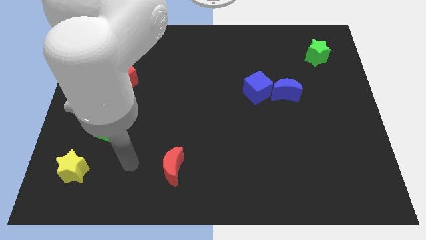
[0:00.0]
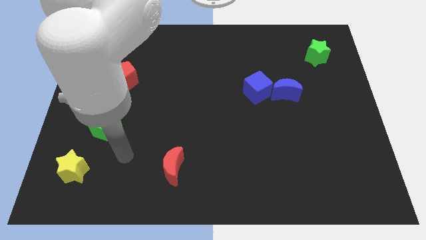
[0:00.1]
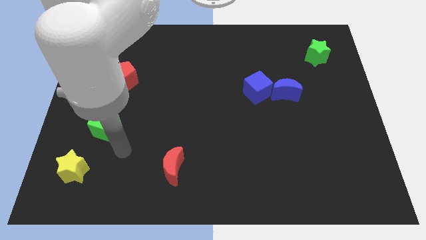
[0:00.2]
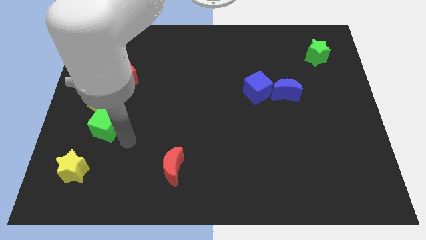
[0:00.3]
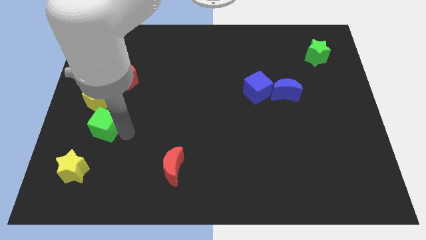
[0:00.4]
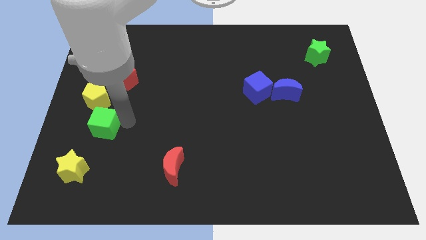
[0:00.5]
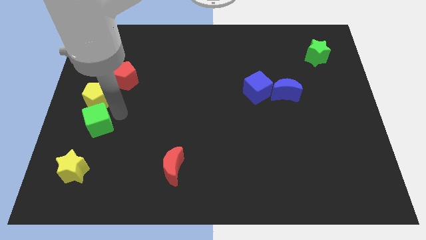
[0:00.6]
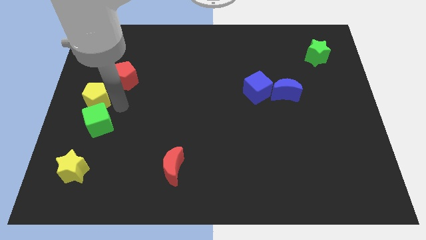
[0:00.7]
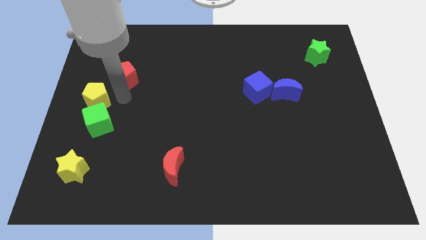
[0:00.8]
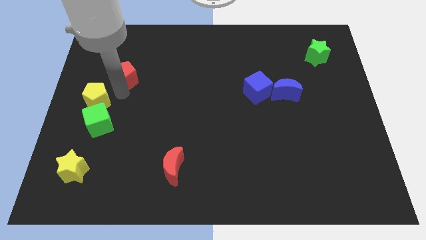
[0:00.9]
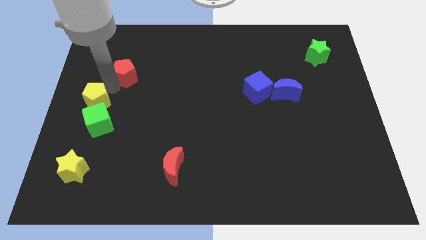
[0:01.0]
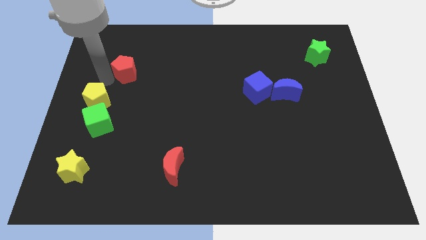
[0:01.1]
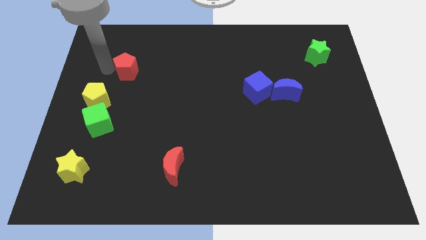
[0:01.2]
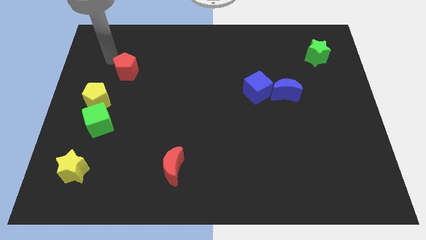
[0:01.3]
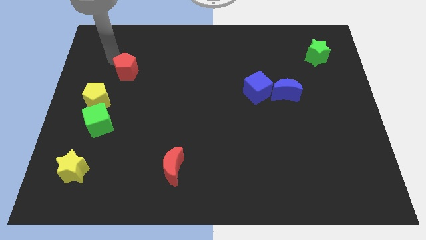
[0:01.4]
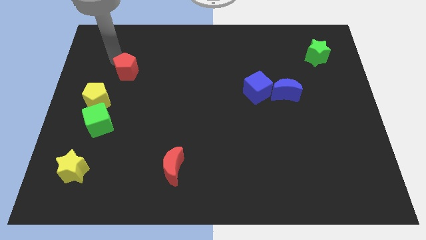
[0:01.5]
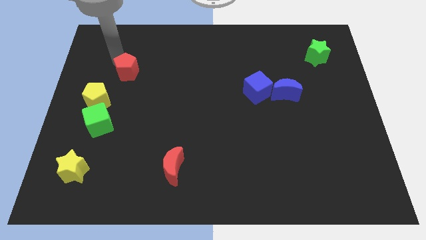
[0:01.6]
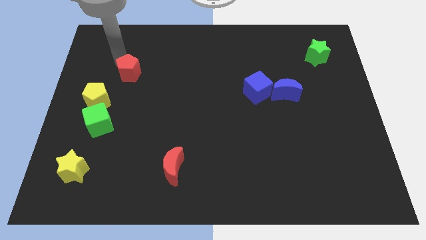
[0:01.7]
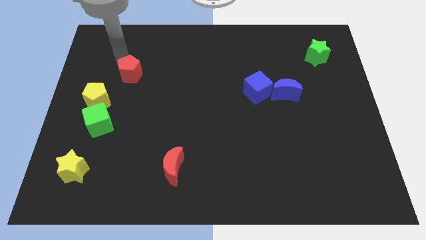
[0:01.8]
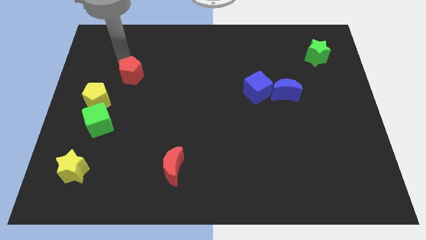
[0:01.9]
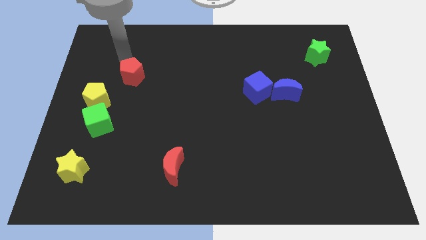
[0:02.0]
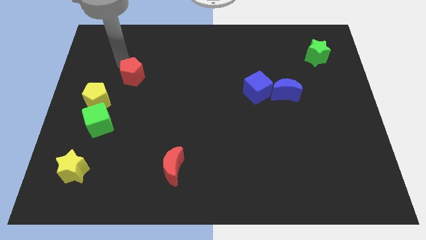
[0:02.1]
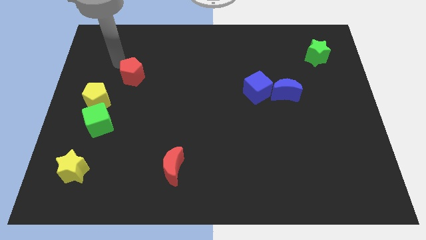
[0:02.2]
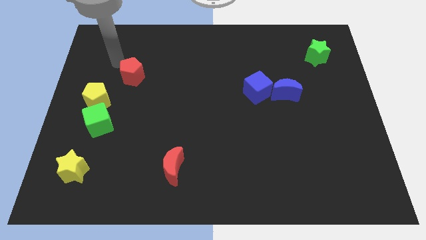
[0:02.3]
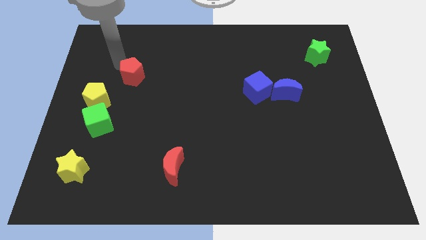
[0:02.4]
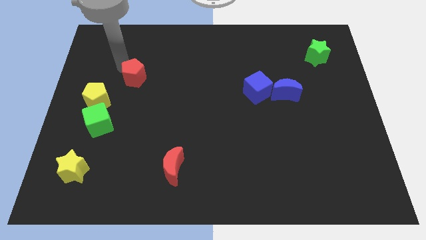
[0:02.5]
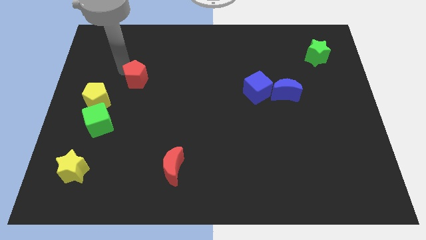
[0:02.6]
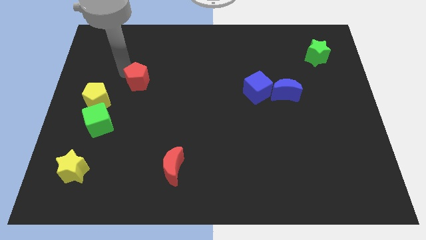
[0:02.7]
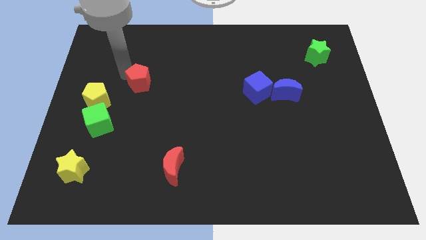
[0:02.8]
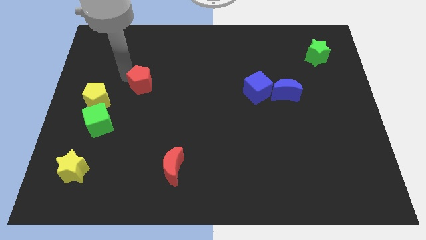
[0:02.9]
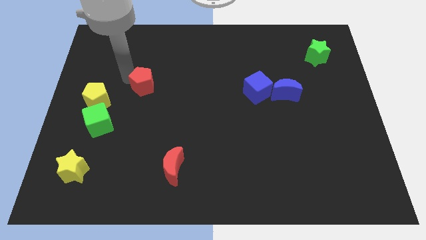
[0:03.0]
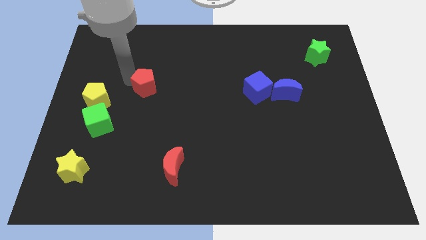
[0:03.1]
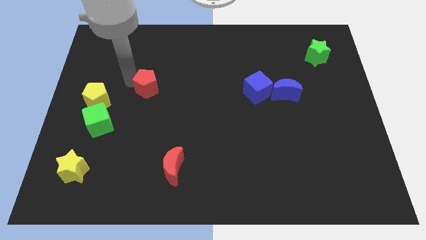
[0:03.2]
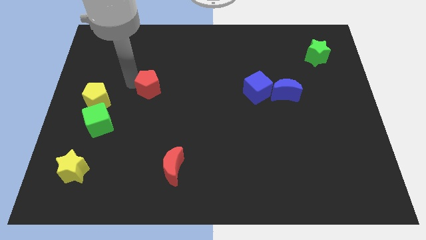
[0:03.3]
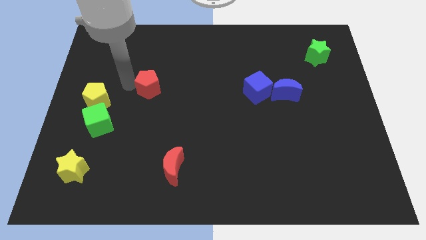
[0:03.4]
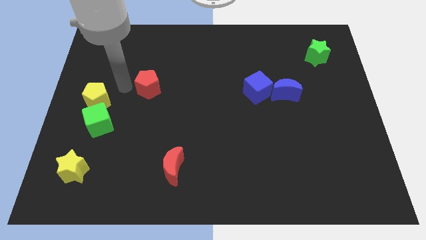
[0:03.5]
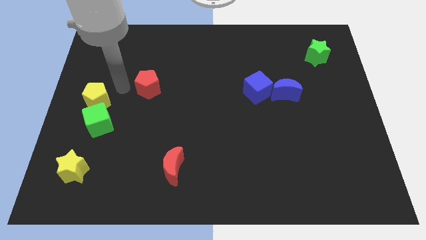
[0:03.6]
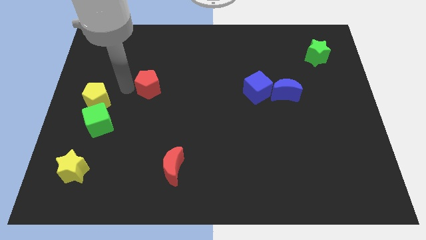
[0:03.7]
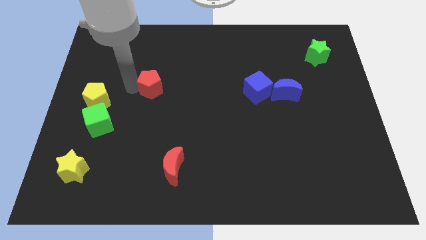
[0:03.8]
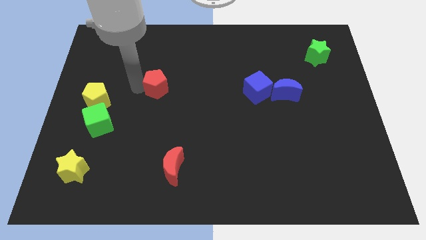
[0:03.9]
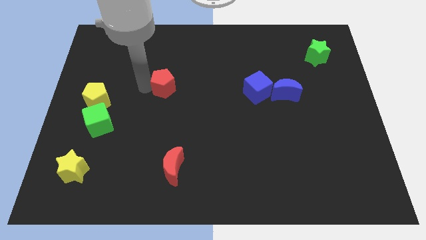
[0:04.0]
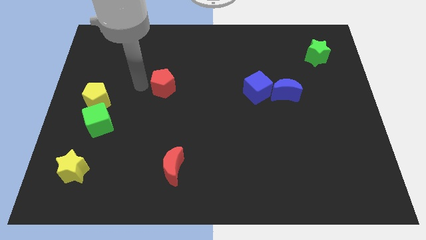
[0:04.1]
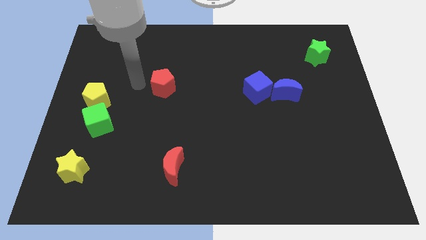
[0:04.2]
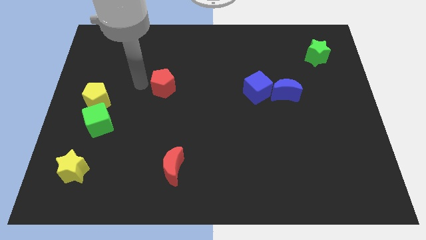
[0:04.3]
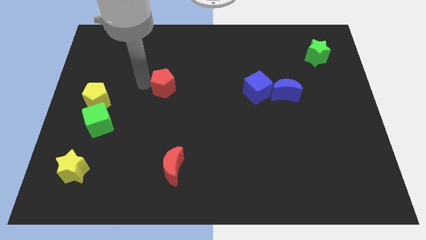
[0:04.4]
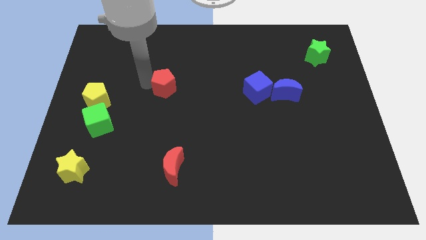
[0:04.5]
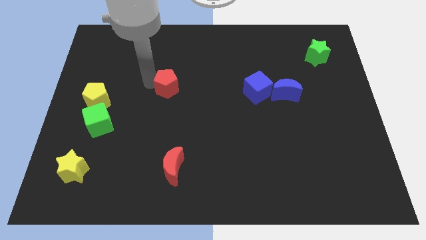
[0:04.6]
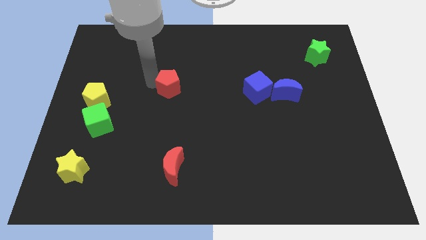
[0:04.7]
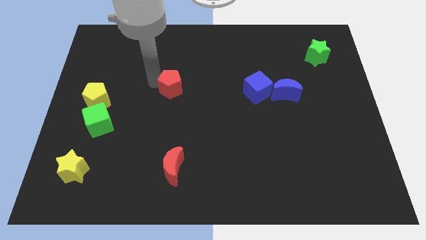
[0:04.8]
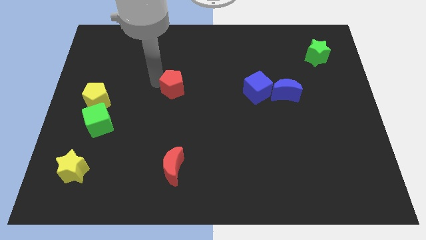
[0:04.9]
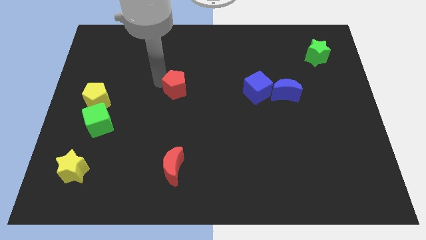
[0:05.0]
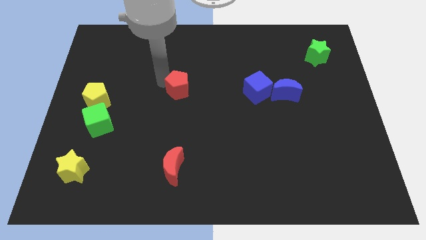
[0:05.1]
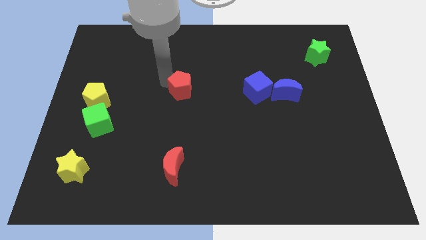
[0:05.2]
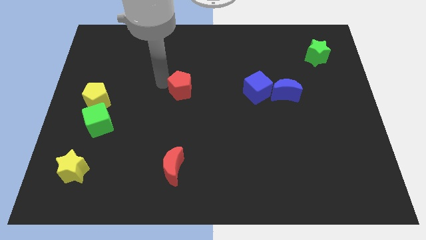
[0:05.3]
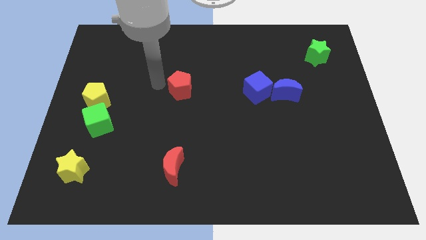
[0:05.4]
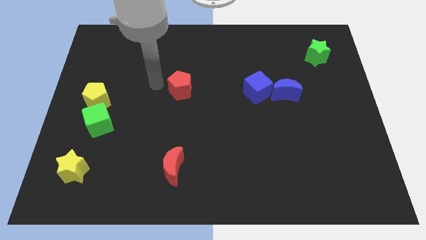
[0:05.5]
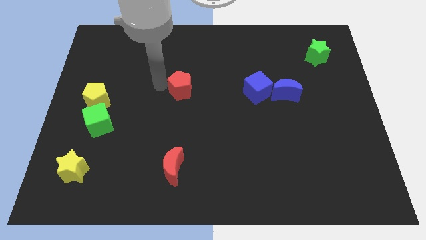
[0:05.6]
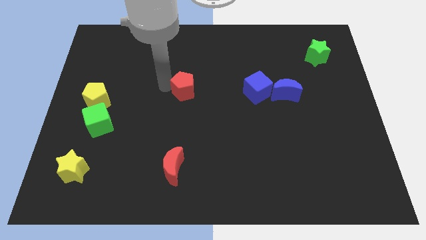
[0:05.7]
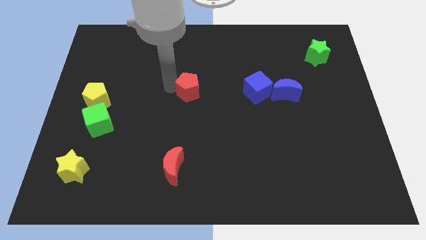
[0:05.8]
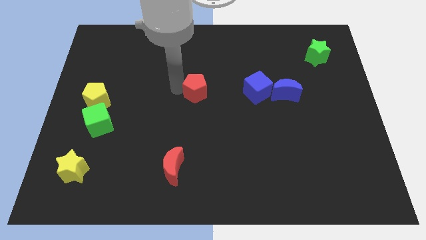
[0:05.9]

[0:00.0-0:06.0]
move the red pentagon left of the blue cube

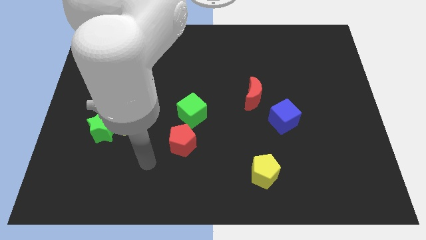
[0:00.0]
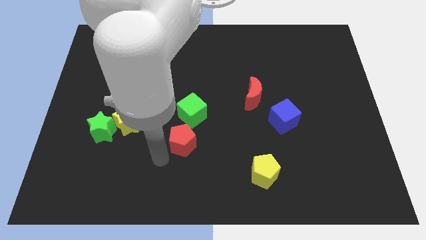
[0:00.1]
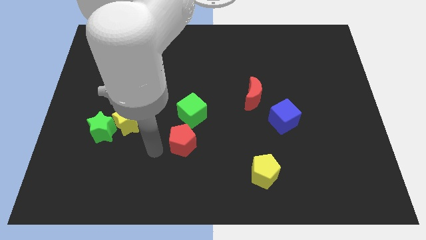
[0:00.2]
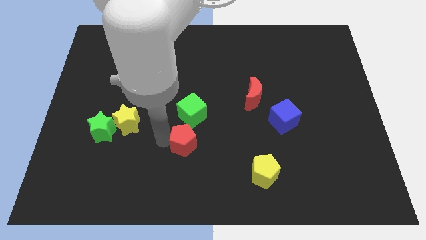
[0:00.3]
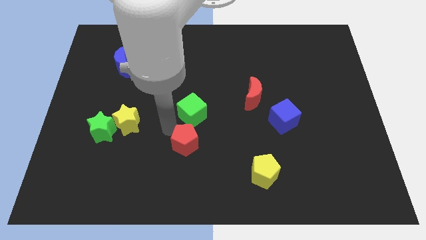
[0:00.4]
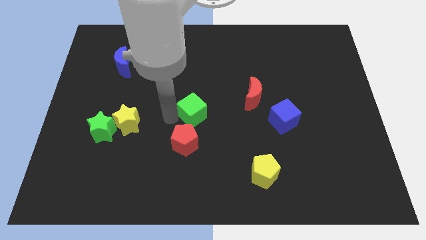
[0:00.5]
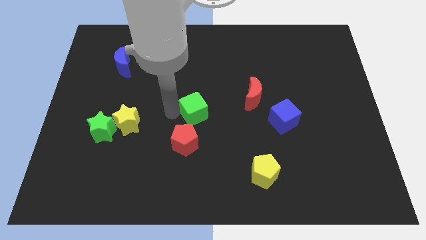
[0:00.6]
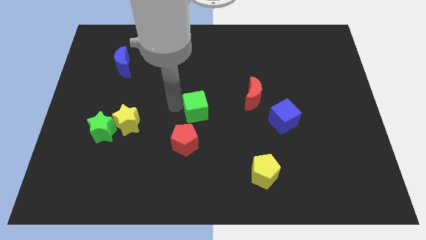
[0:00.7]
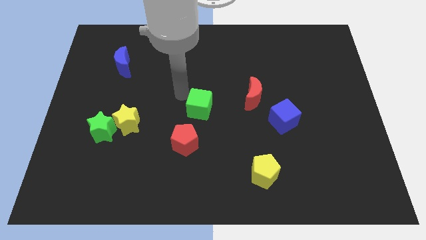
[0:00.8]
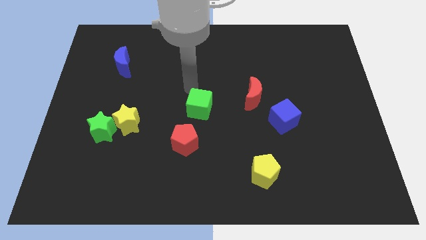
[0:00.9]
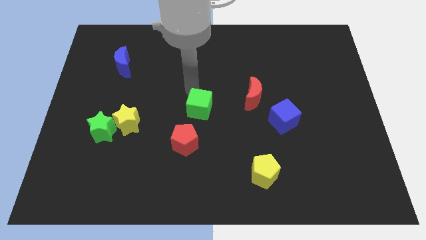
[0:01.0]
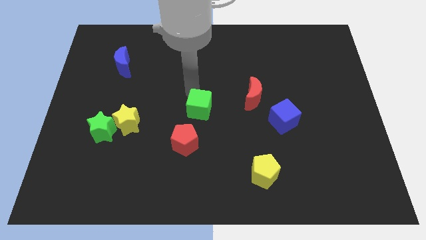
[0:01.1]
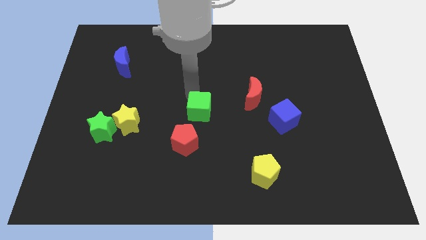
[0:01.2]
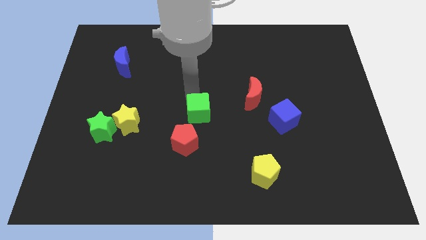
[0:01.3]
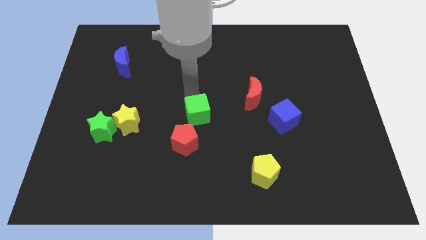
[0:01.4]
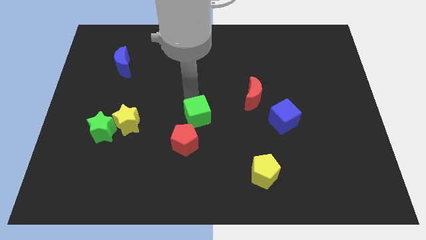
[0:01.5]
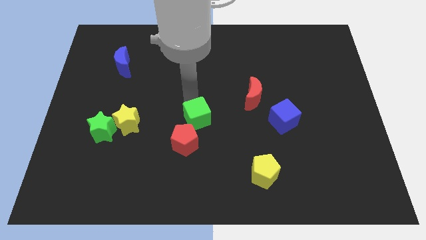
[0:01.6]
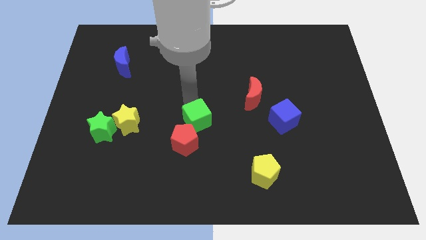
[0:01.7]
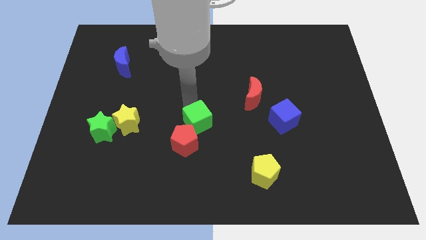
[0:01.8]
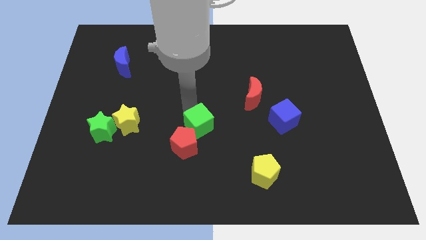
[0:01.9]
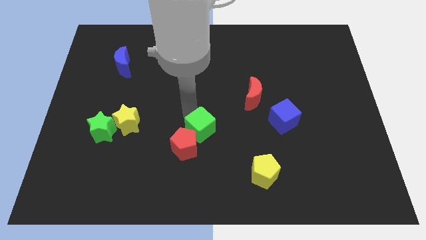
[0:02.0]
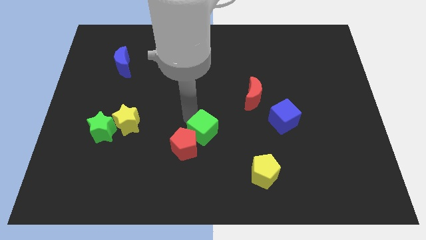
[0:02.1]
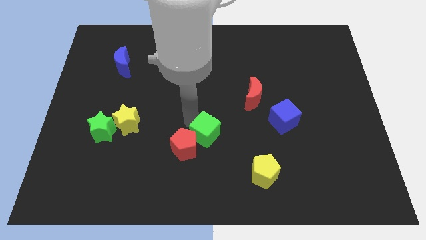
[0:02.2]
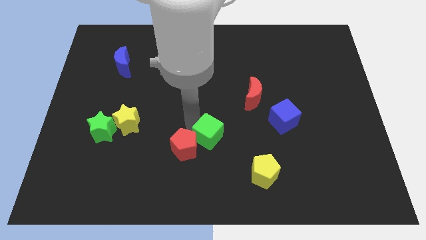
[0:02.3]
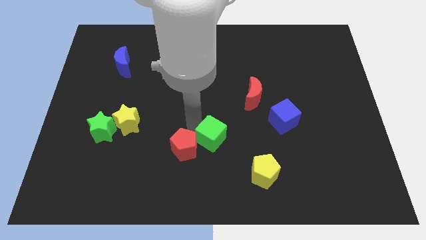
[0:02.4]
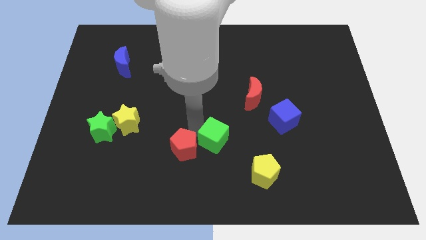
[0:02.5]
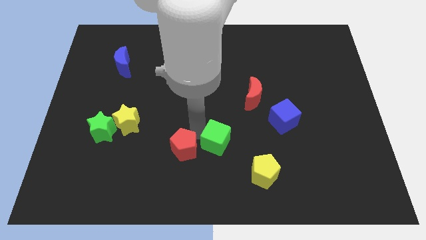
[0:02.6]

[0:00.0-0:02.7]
push the green cube diagonally up and to the left of the yellow pentagon
